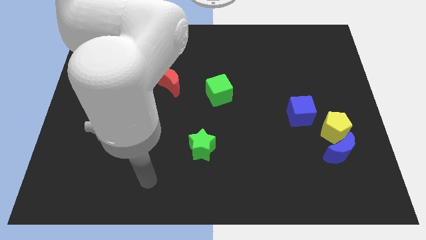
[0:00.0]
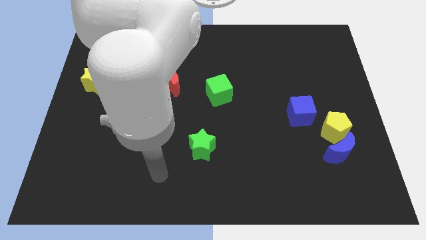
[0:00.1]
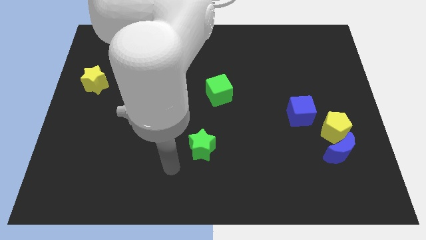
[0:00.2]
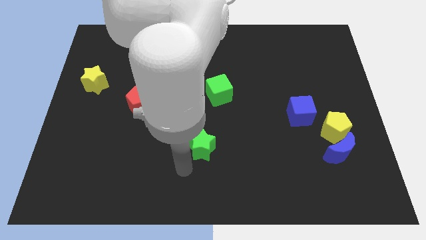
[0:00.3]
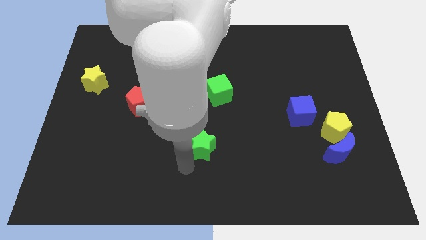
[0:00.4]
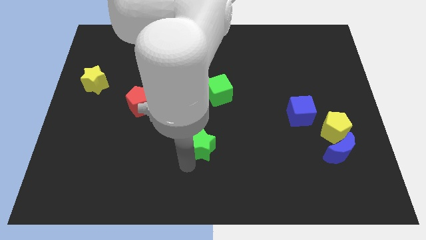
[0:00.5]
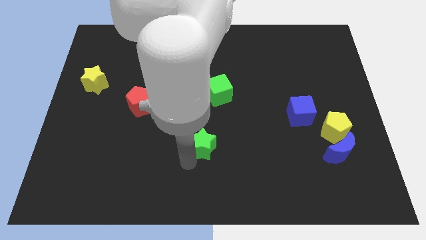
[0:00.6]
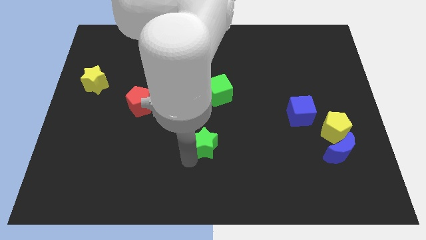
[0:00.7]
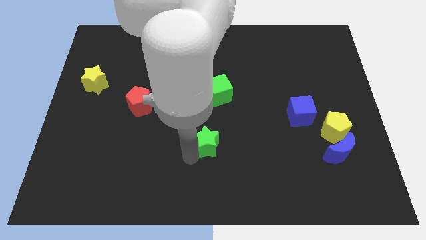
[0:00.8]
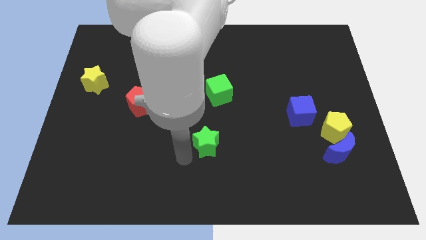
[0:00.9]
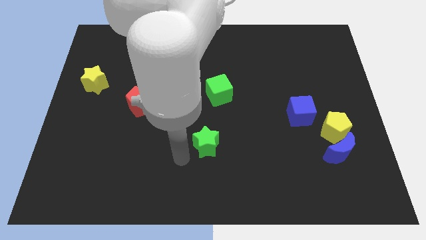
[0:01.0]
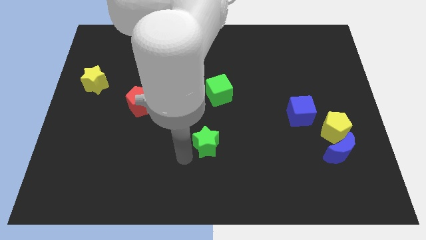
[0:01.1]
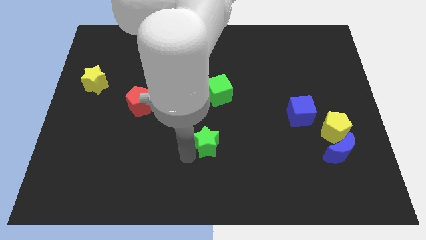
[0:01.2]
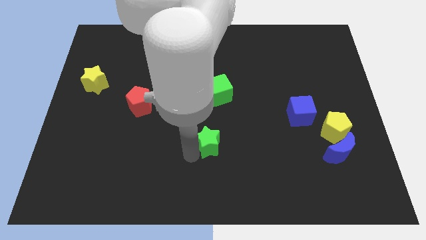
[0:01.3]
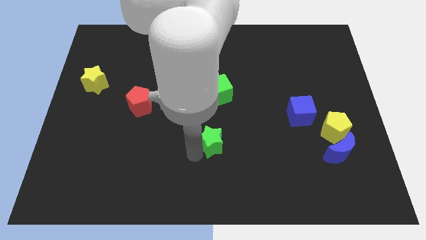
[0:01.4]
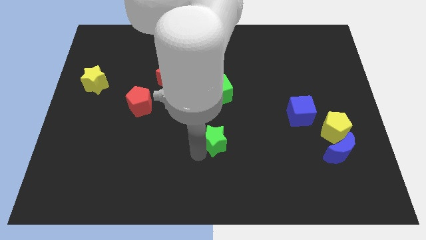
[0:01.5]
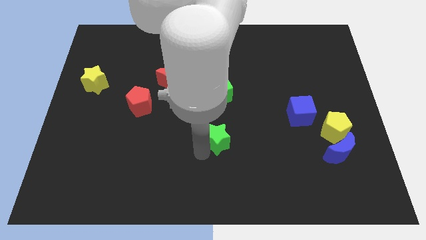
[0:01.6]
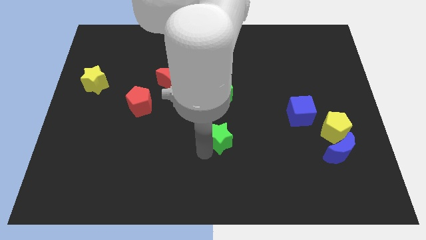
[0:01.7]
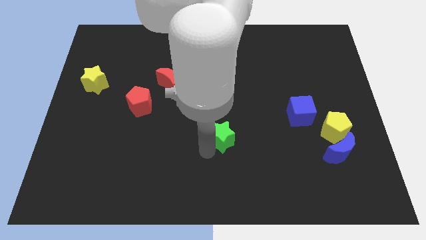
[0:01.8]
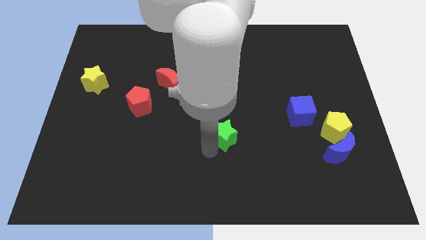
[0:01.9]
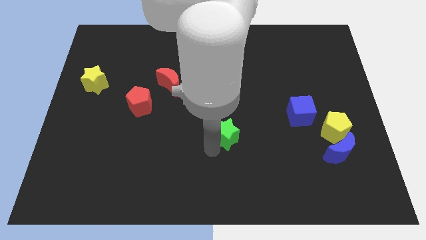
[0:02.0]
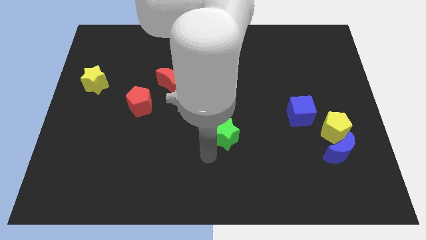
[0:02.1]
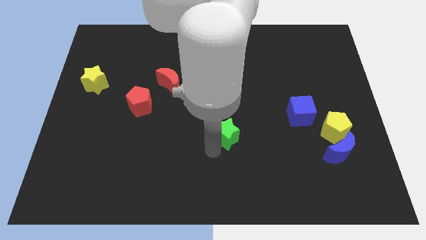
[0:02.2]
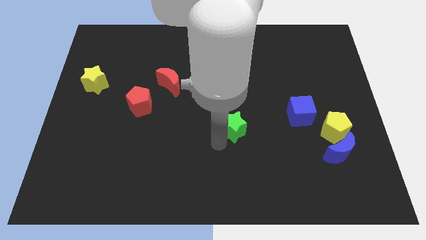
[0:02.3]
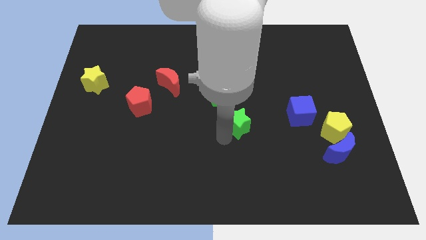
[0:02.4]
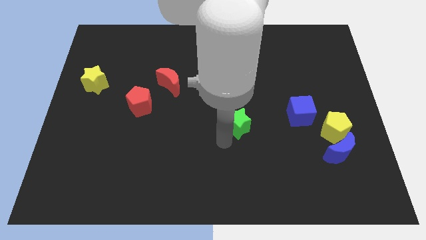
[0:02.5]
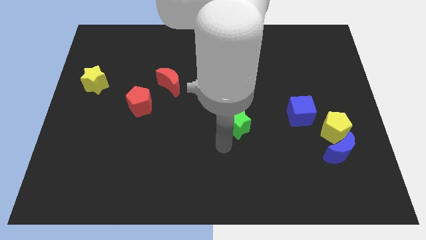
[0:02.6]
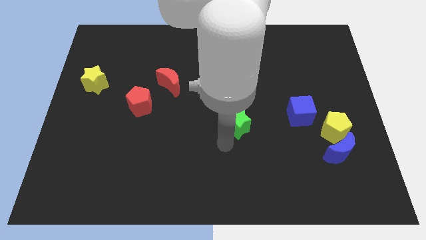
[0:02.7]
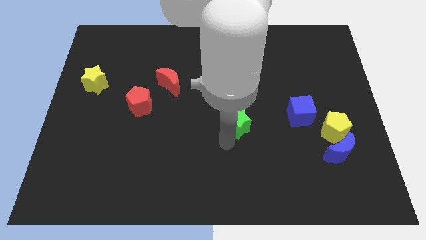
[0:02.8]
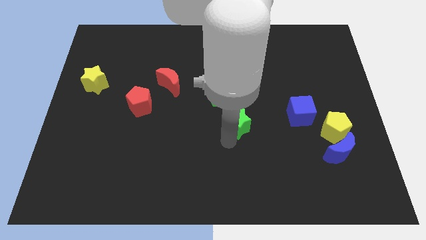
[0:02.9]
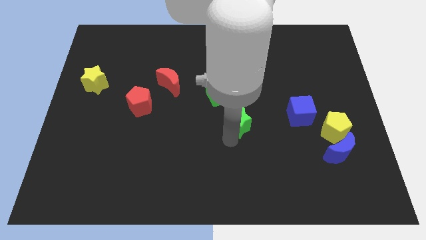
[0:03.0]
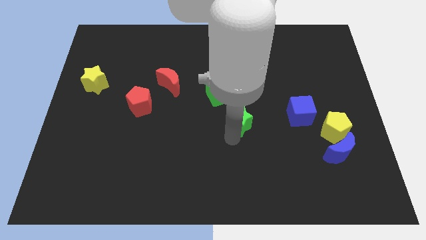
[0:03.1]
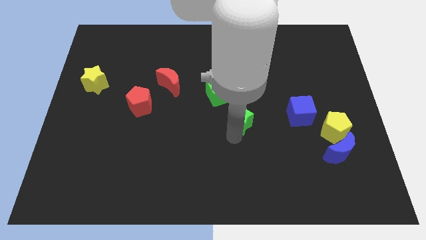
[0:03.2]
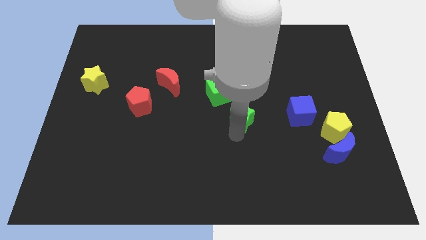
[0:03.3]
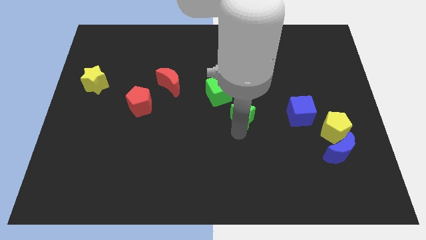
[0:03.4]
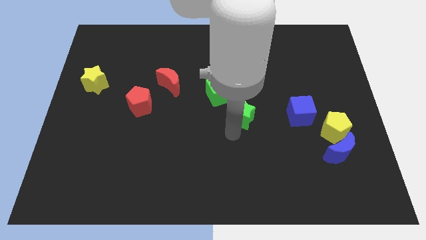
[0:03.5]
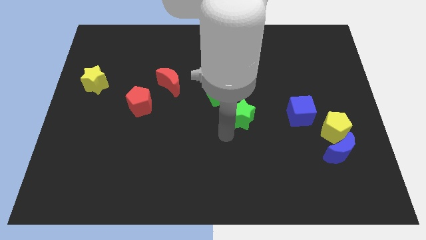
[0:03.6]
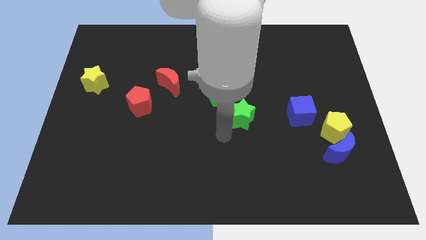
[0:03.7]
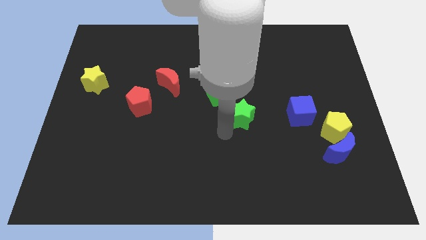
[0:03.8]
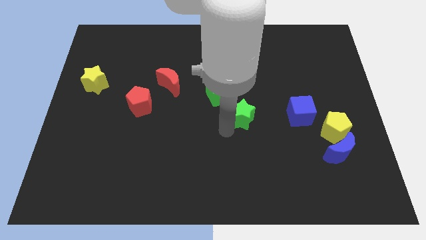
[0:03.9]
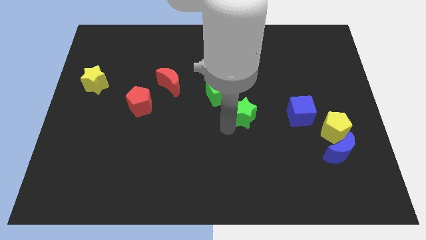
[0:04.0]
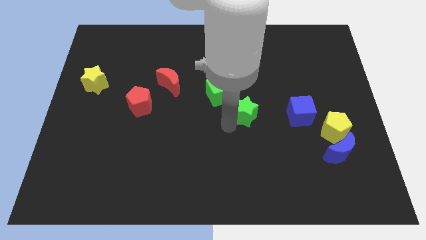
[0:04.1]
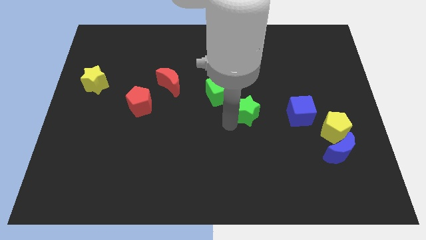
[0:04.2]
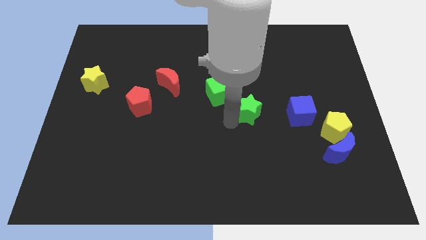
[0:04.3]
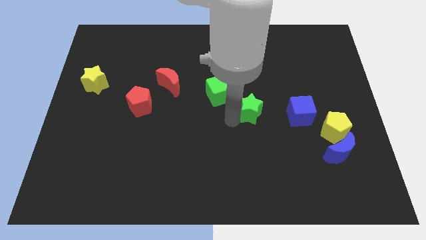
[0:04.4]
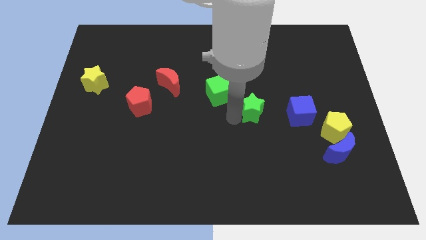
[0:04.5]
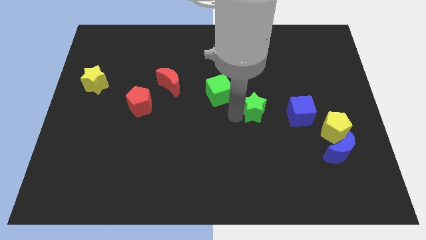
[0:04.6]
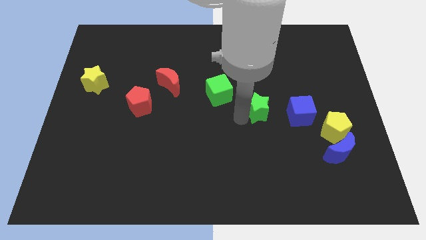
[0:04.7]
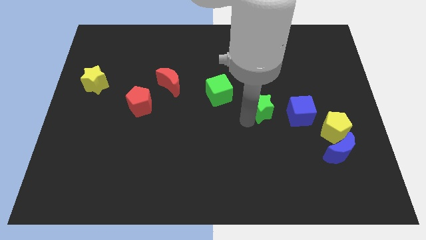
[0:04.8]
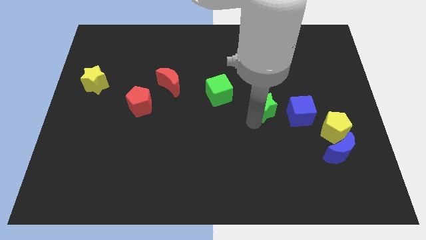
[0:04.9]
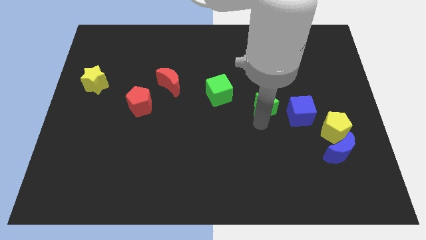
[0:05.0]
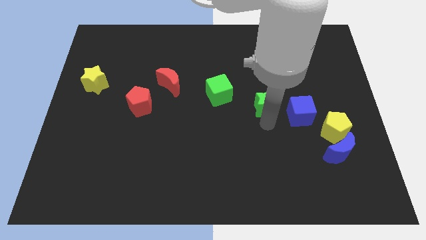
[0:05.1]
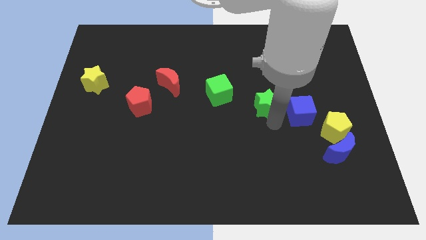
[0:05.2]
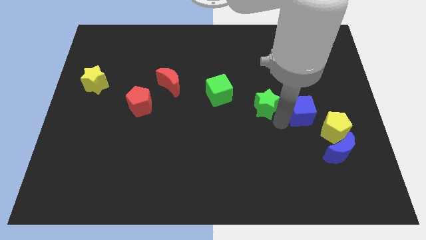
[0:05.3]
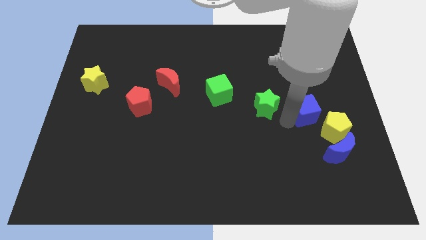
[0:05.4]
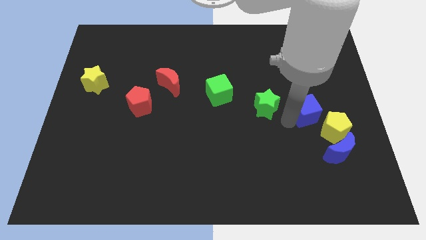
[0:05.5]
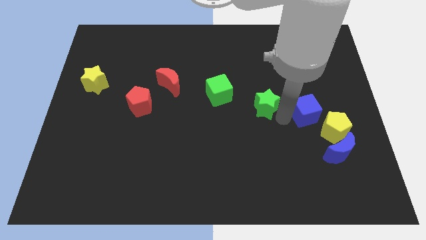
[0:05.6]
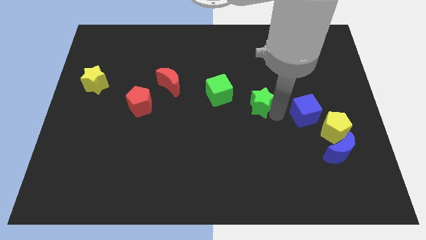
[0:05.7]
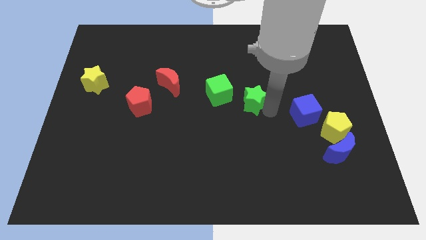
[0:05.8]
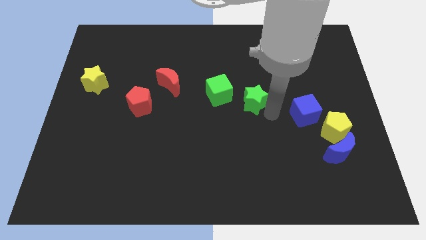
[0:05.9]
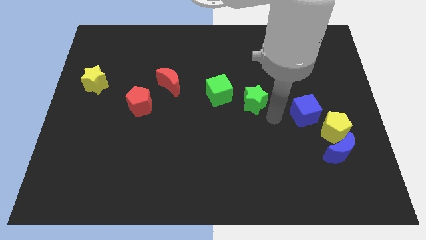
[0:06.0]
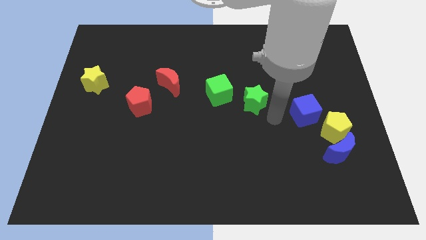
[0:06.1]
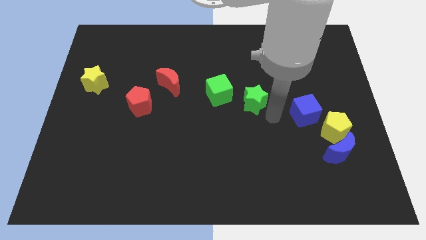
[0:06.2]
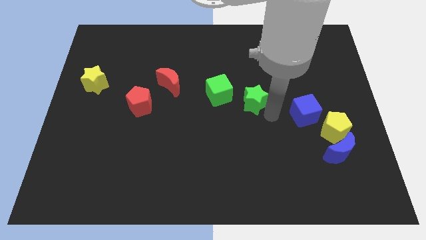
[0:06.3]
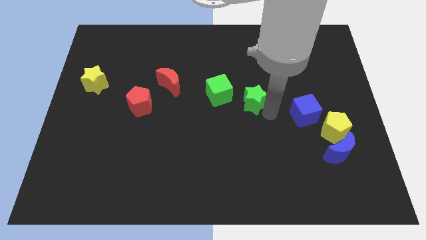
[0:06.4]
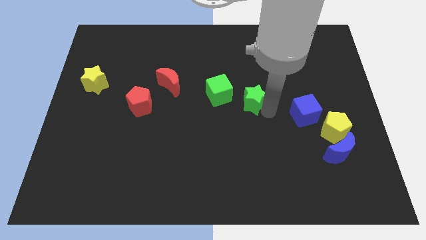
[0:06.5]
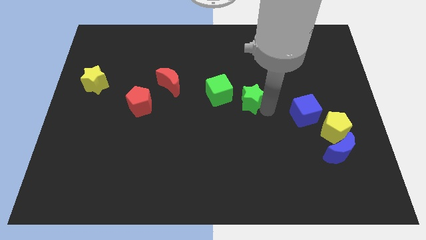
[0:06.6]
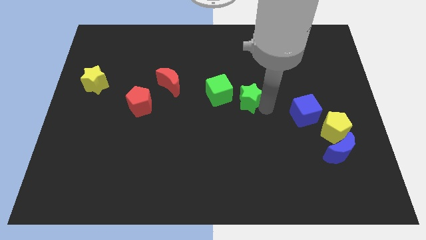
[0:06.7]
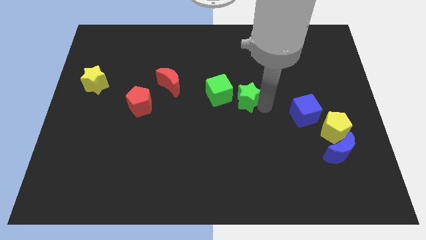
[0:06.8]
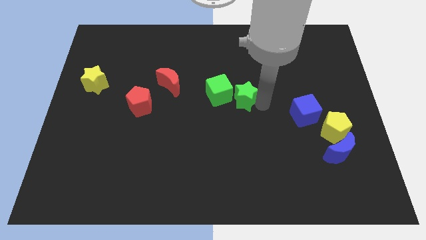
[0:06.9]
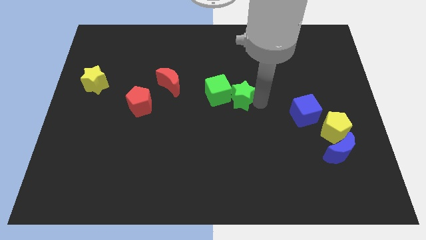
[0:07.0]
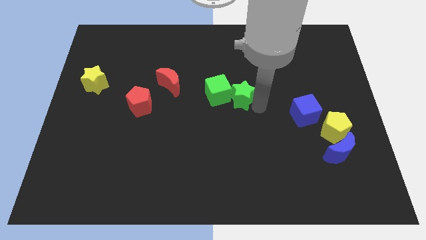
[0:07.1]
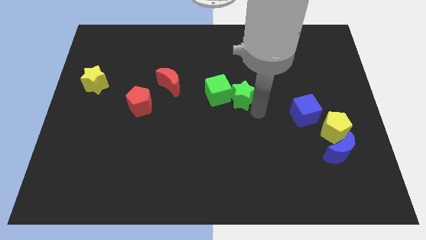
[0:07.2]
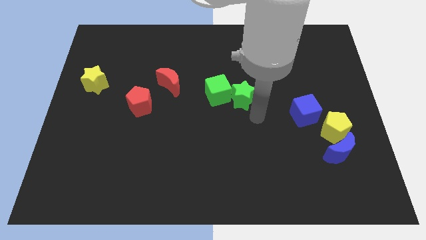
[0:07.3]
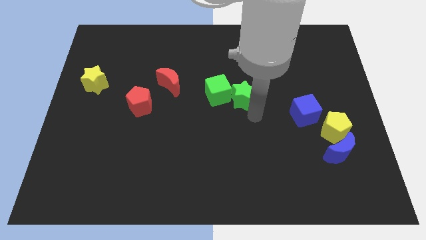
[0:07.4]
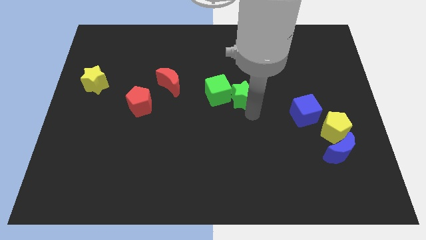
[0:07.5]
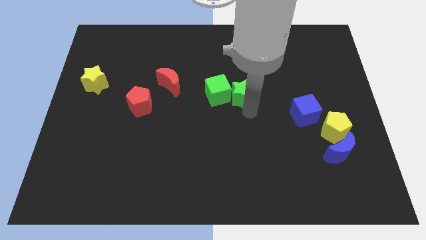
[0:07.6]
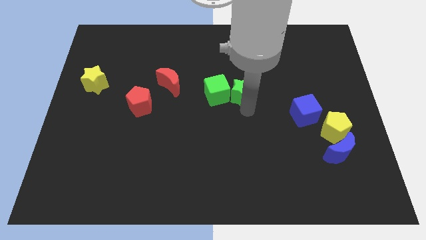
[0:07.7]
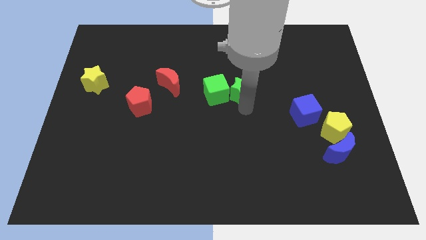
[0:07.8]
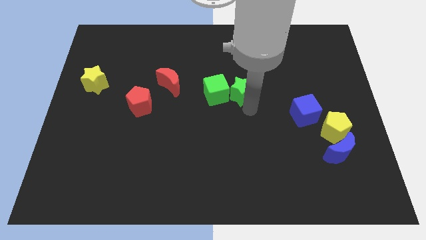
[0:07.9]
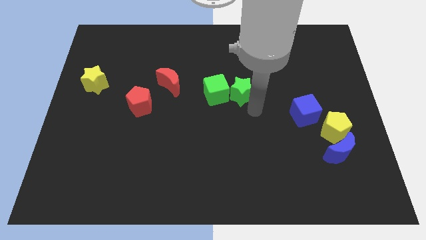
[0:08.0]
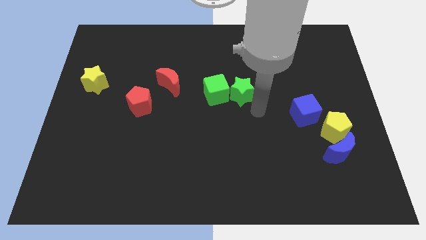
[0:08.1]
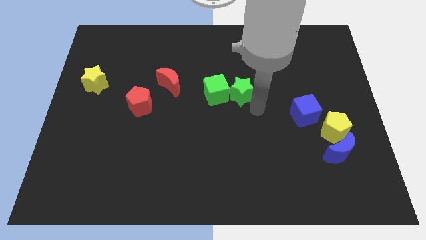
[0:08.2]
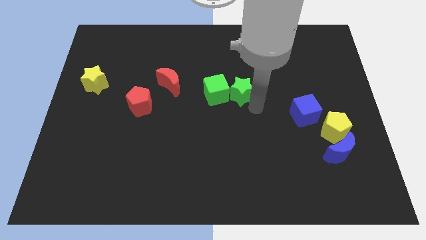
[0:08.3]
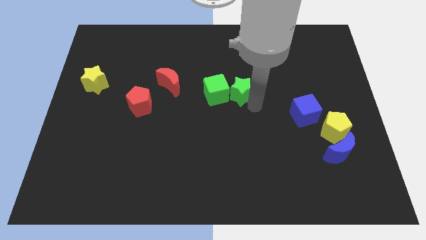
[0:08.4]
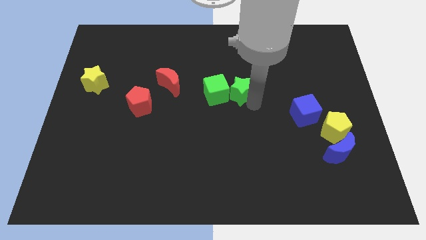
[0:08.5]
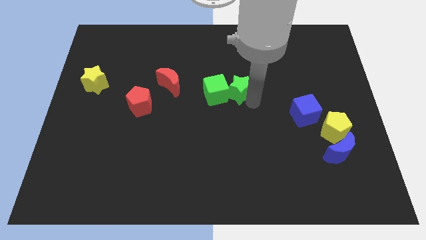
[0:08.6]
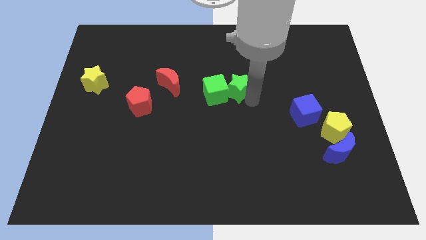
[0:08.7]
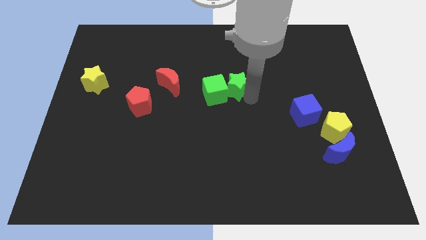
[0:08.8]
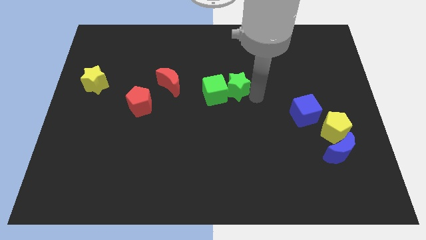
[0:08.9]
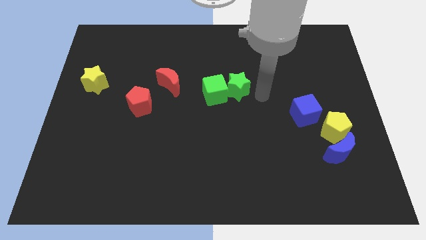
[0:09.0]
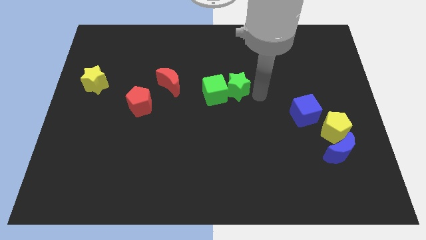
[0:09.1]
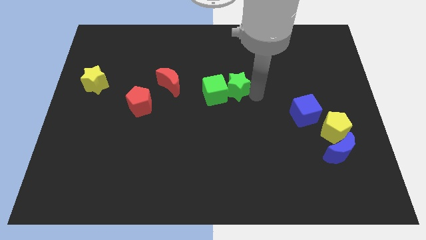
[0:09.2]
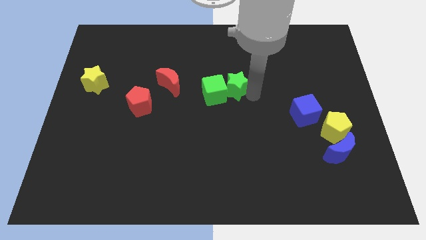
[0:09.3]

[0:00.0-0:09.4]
move the green star to the right side of the red moon
